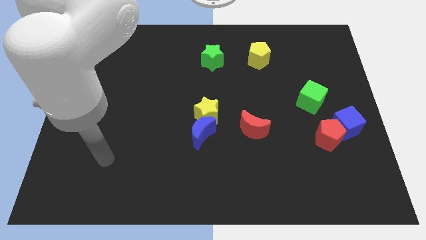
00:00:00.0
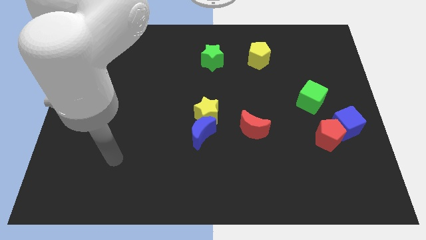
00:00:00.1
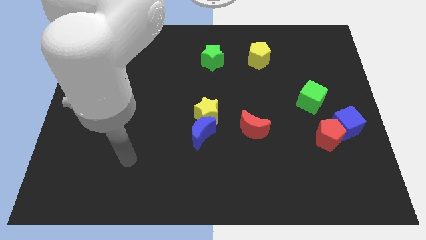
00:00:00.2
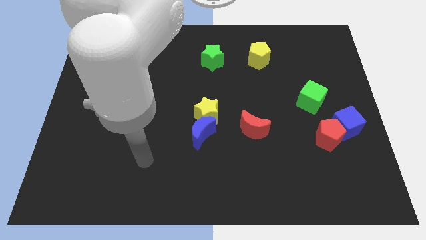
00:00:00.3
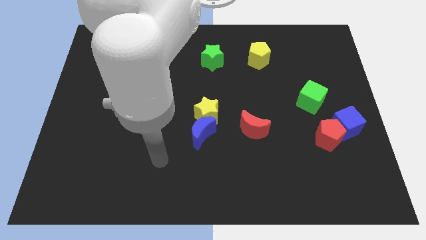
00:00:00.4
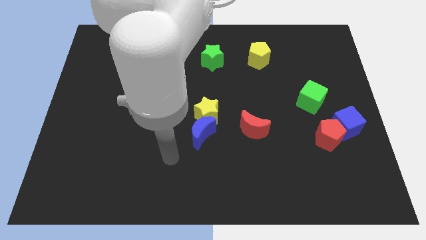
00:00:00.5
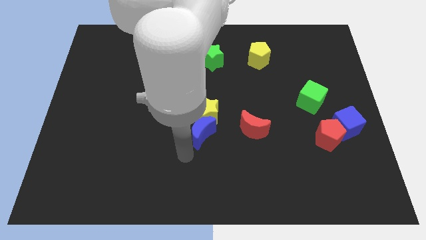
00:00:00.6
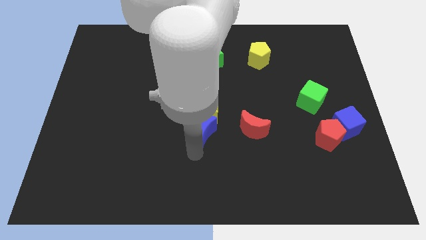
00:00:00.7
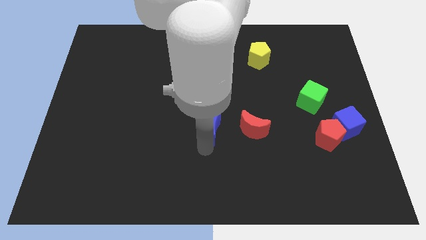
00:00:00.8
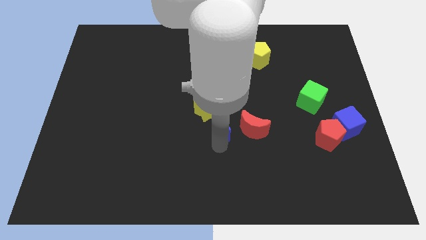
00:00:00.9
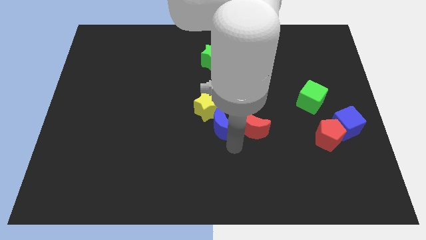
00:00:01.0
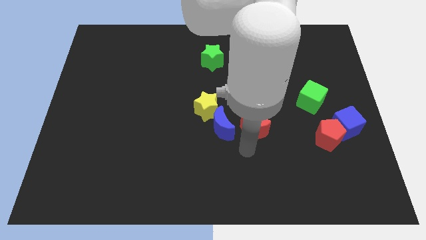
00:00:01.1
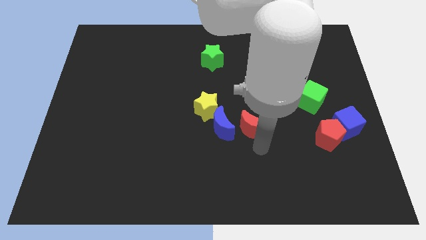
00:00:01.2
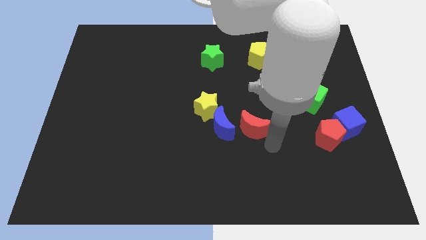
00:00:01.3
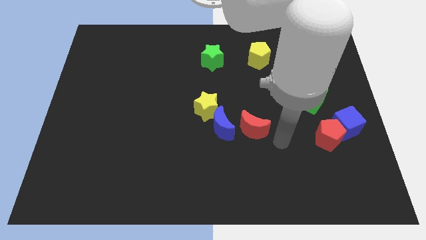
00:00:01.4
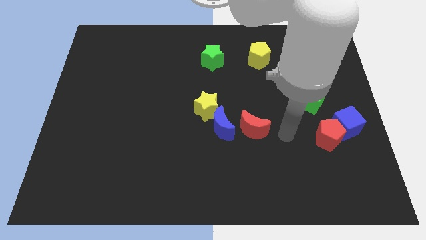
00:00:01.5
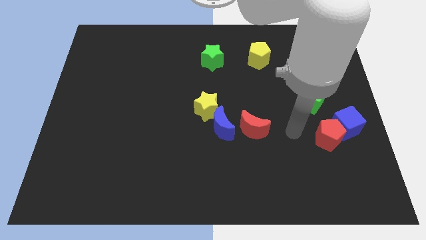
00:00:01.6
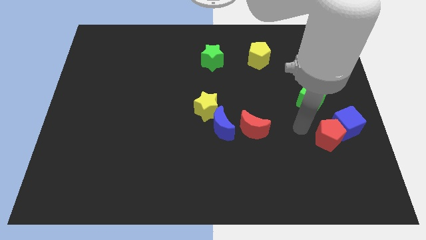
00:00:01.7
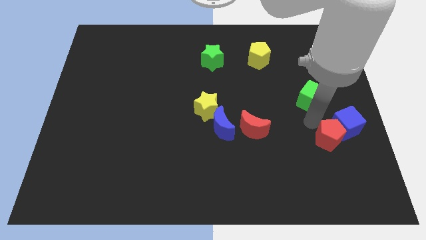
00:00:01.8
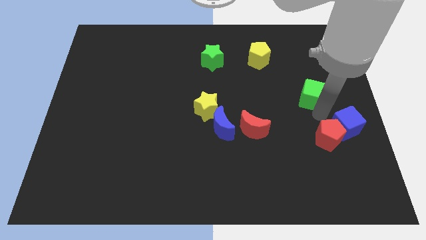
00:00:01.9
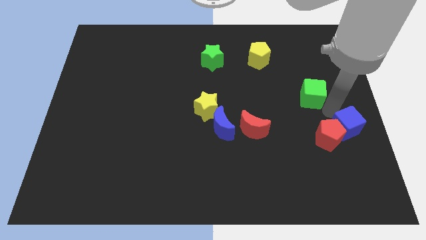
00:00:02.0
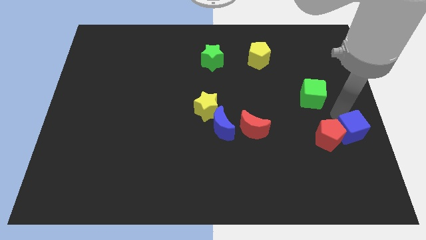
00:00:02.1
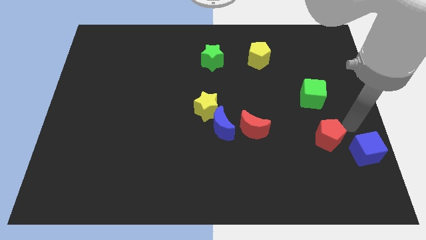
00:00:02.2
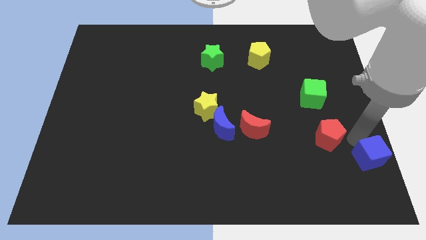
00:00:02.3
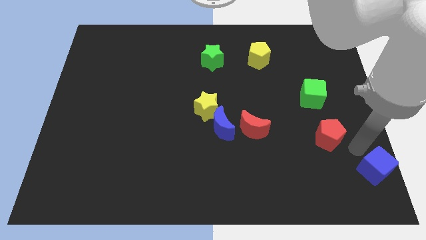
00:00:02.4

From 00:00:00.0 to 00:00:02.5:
pull the red pentagon apart from the blue cube

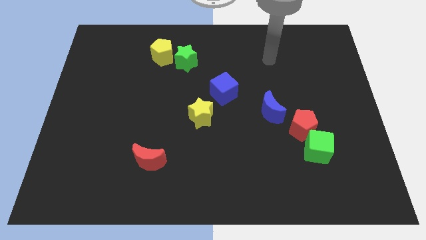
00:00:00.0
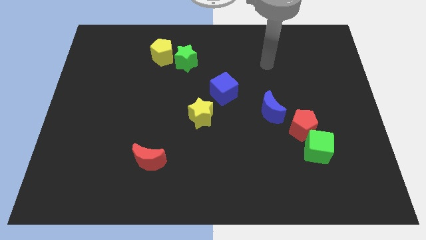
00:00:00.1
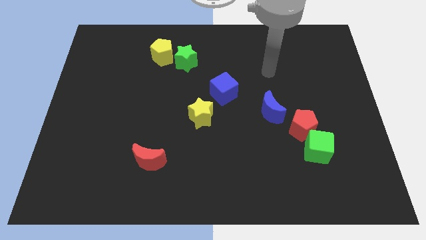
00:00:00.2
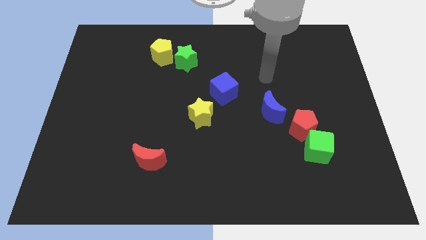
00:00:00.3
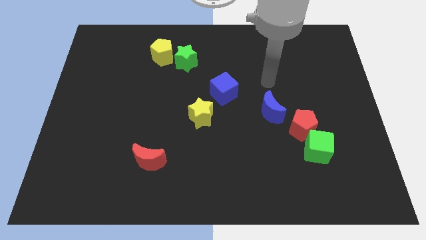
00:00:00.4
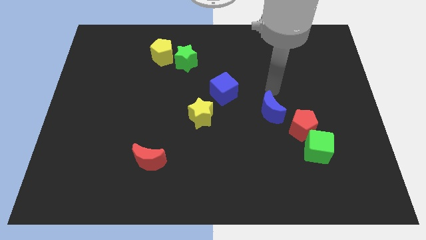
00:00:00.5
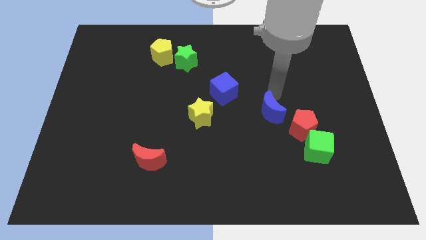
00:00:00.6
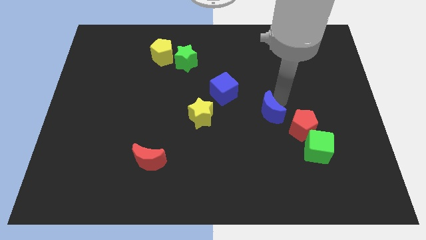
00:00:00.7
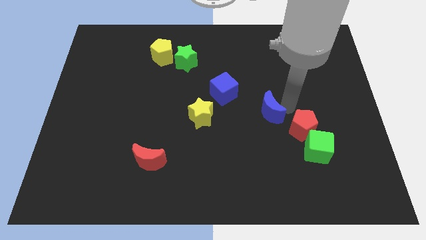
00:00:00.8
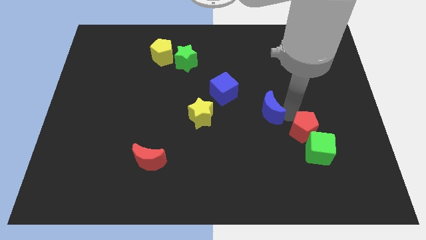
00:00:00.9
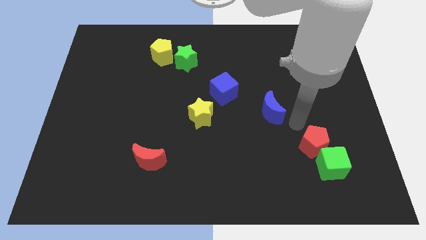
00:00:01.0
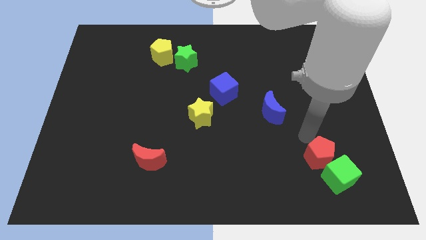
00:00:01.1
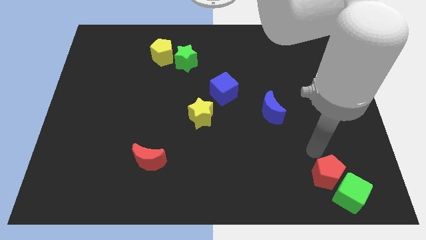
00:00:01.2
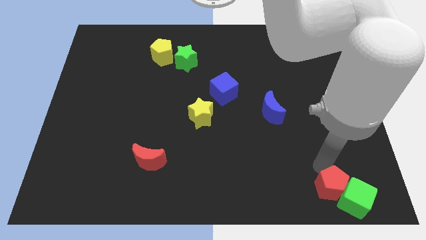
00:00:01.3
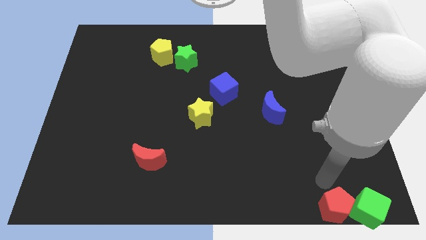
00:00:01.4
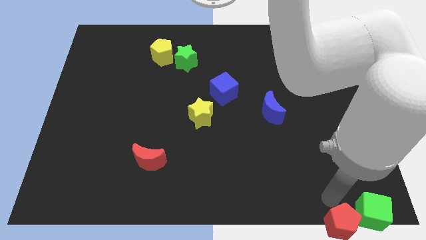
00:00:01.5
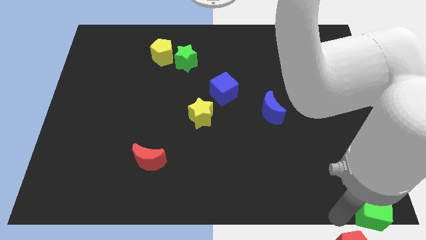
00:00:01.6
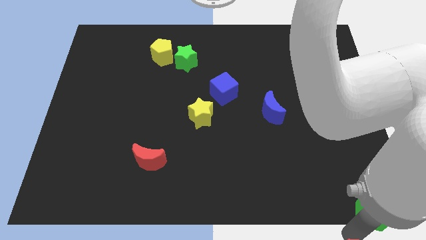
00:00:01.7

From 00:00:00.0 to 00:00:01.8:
pull the green cube apart from the red pentagon

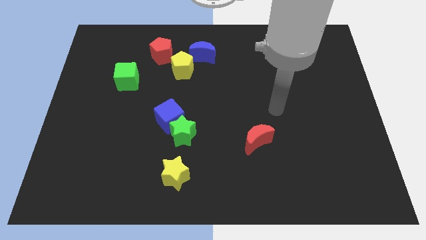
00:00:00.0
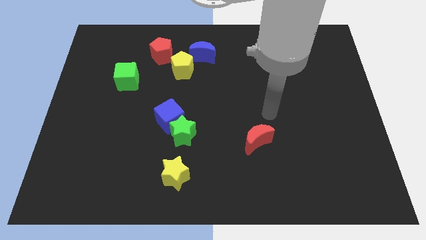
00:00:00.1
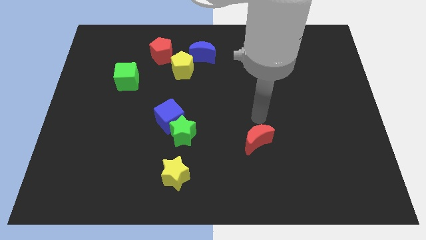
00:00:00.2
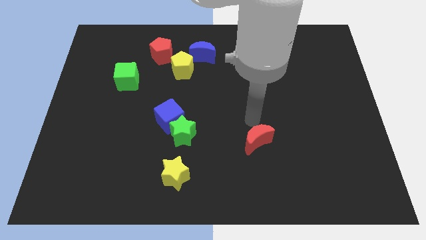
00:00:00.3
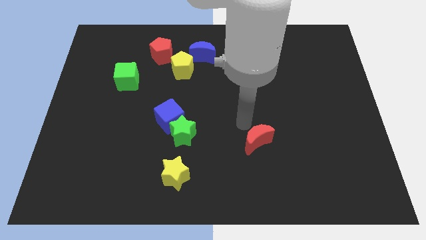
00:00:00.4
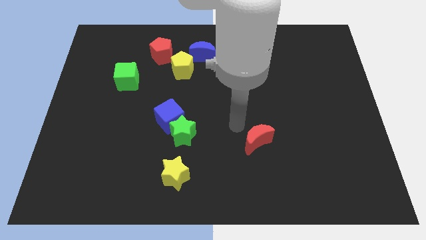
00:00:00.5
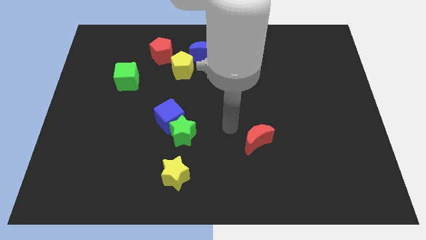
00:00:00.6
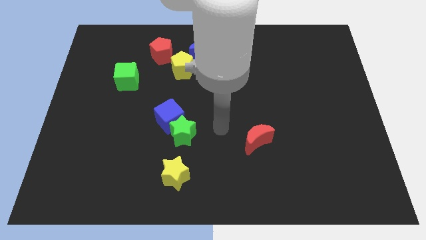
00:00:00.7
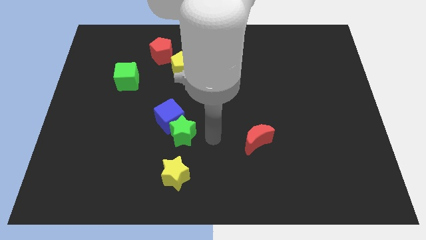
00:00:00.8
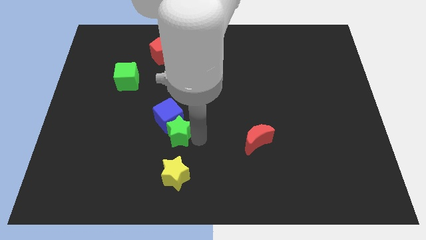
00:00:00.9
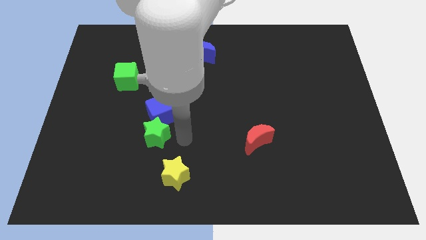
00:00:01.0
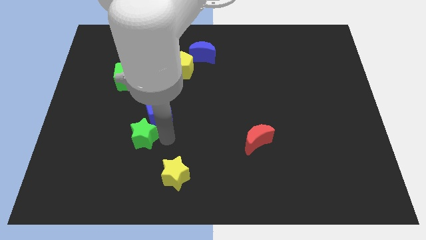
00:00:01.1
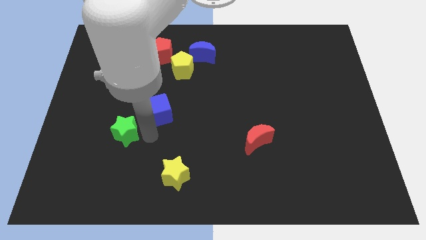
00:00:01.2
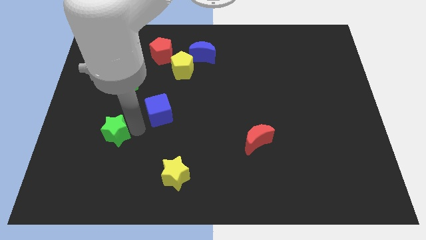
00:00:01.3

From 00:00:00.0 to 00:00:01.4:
move the blue cube away from the green star

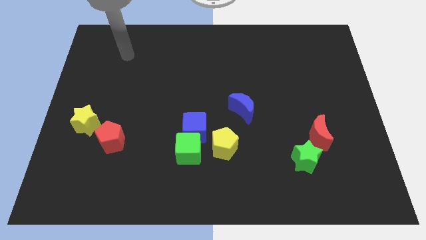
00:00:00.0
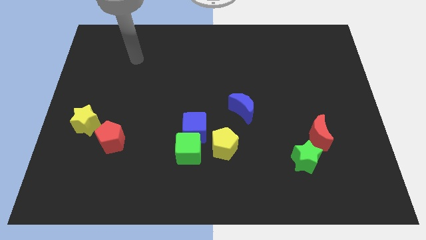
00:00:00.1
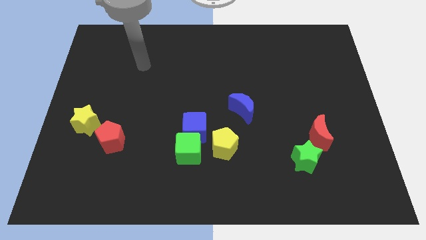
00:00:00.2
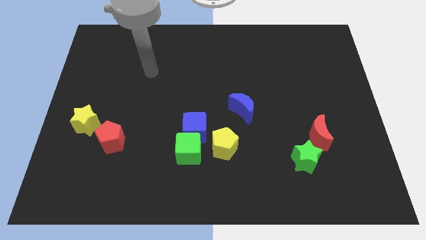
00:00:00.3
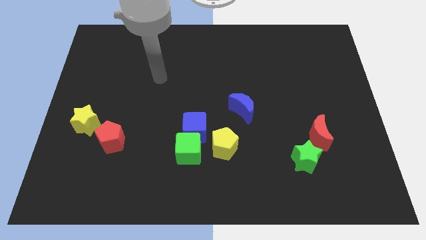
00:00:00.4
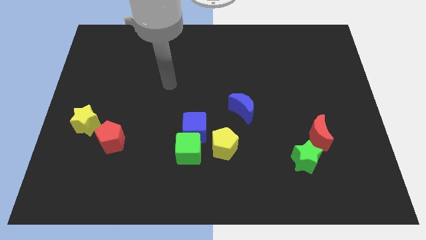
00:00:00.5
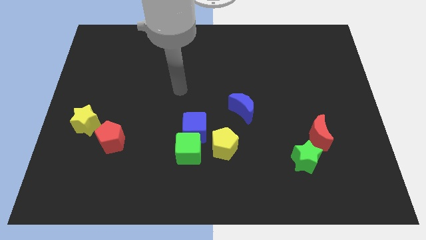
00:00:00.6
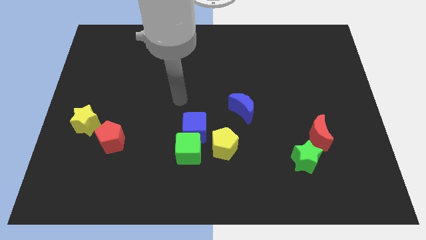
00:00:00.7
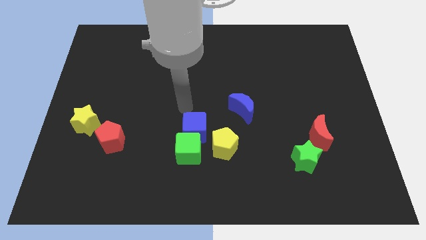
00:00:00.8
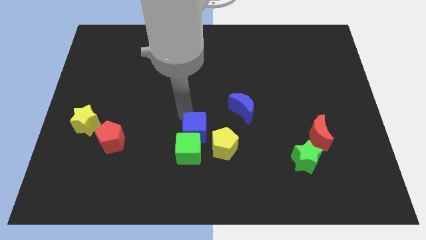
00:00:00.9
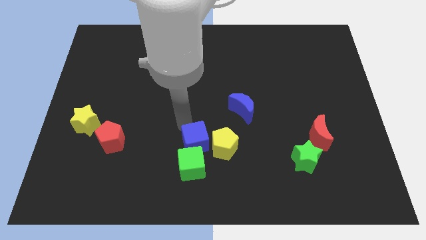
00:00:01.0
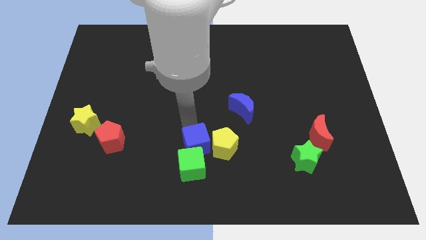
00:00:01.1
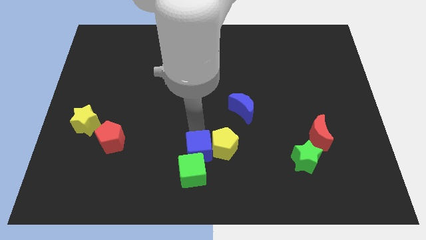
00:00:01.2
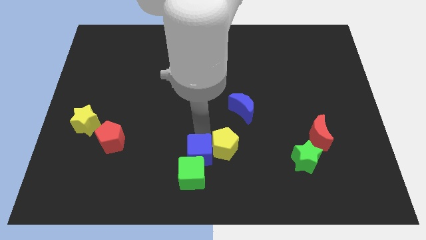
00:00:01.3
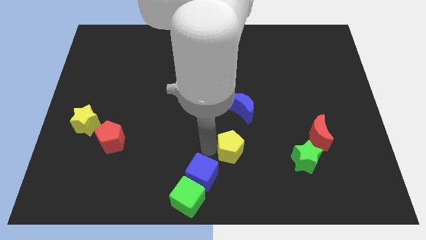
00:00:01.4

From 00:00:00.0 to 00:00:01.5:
pull the green cube apart from the blue cube and yellow pentagon

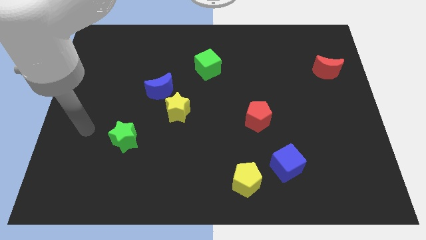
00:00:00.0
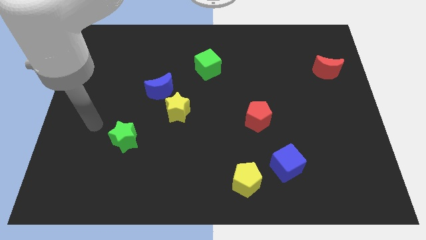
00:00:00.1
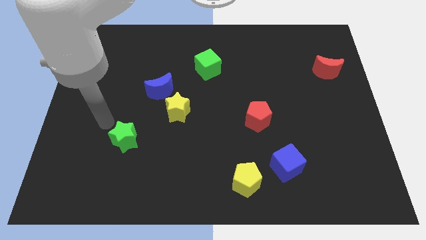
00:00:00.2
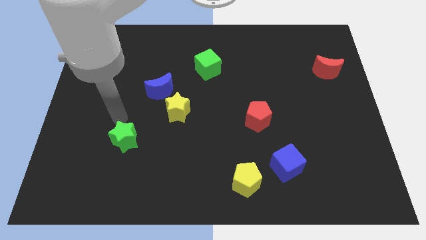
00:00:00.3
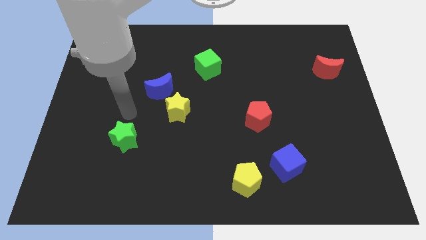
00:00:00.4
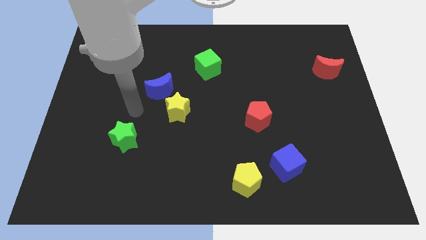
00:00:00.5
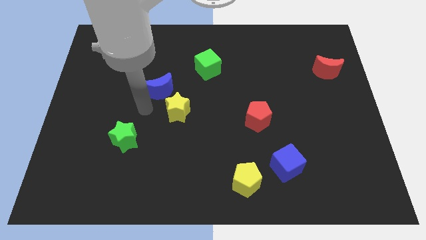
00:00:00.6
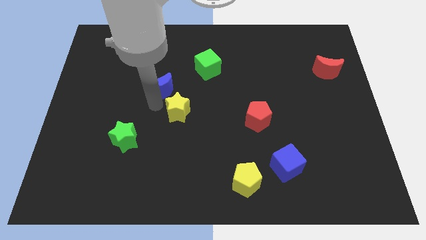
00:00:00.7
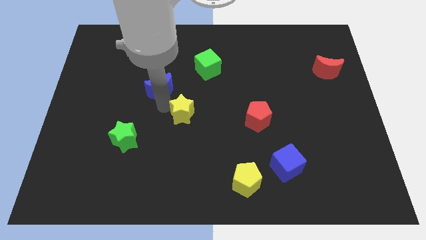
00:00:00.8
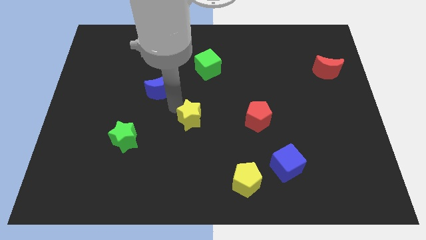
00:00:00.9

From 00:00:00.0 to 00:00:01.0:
move the blue moon away from the yellow star

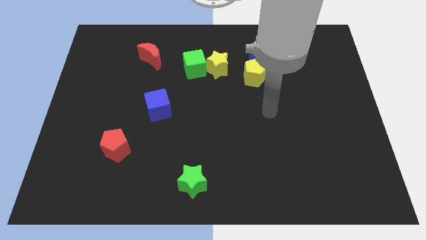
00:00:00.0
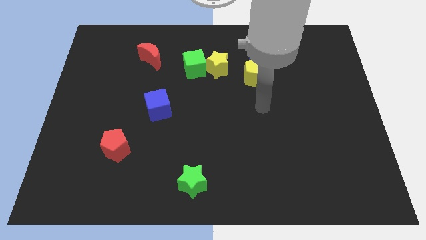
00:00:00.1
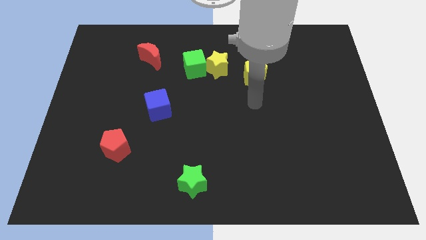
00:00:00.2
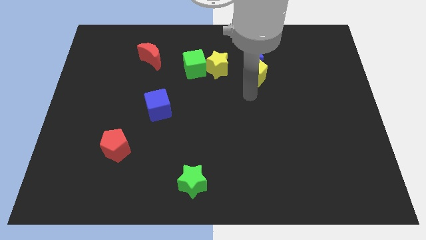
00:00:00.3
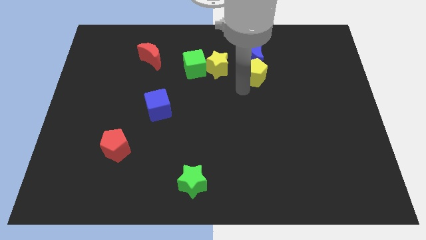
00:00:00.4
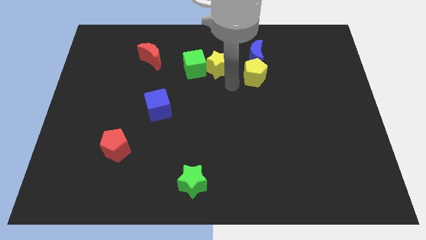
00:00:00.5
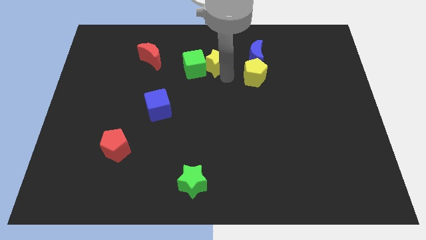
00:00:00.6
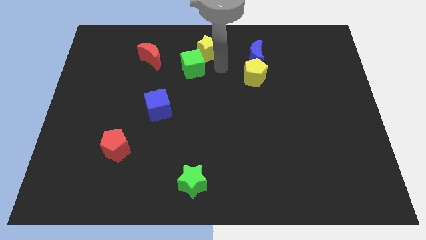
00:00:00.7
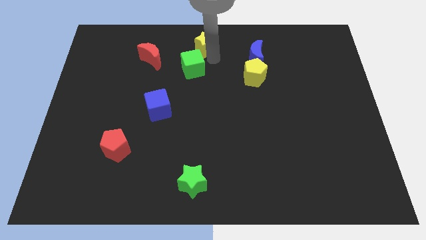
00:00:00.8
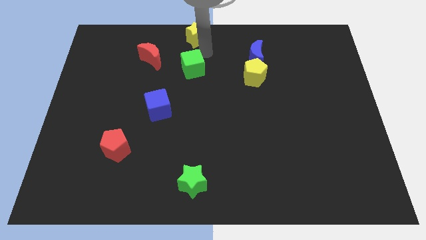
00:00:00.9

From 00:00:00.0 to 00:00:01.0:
pull the green cube apart from the yellow star

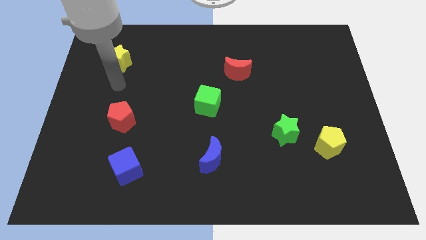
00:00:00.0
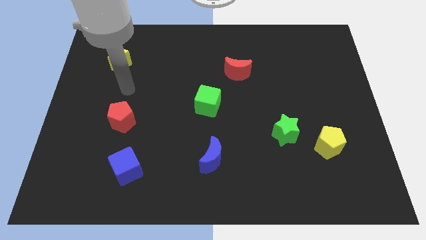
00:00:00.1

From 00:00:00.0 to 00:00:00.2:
separate the green star from the yellow pentagon

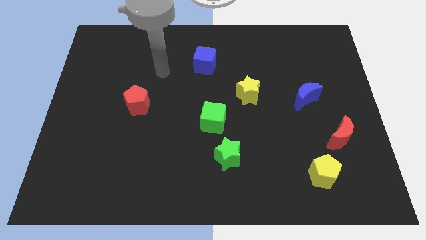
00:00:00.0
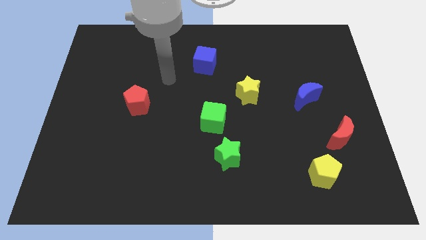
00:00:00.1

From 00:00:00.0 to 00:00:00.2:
move the green cube away from the green star
